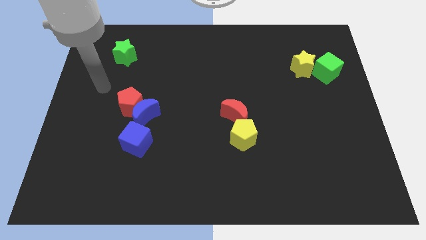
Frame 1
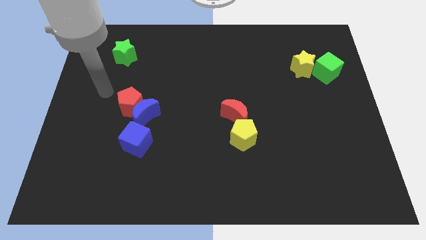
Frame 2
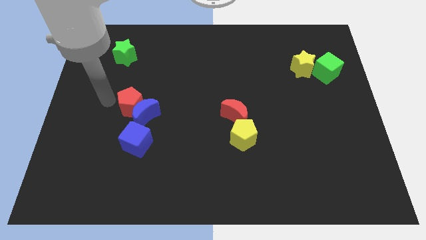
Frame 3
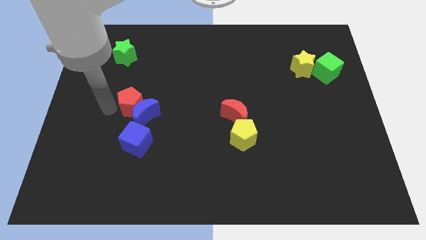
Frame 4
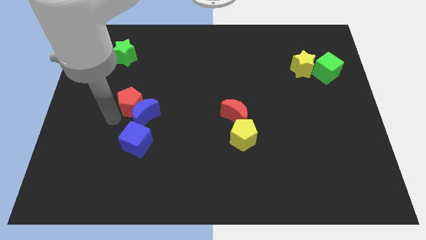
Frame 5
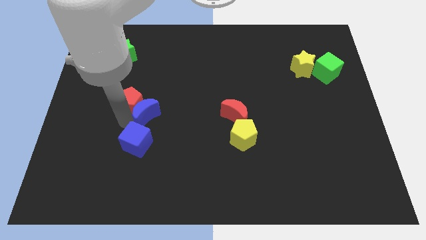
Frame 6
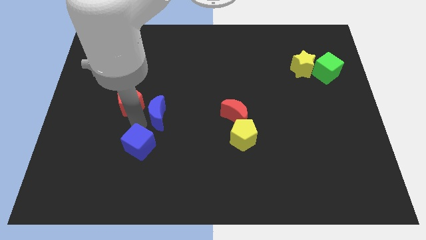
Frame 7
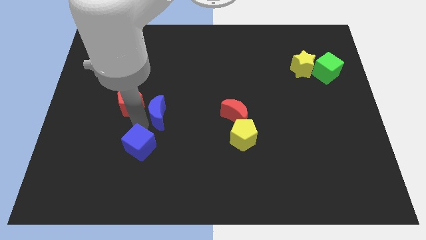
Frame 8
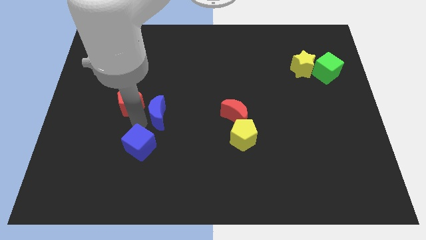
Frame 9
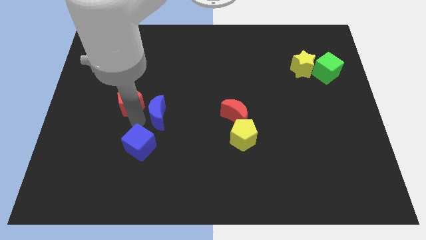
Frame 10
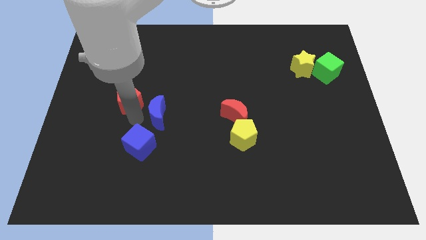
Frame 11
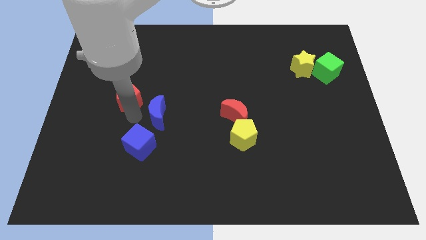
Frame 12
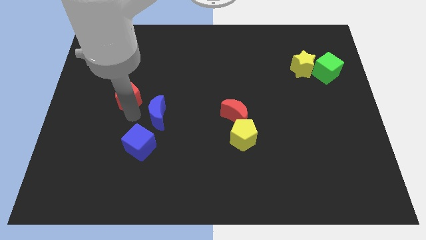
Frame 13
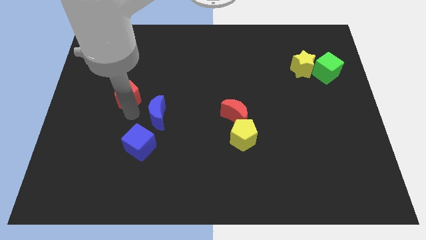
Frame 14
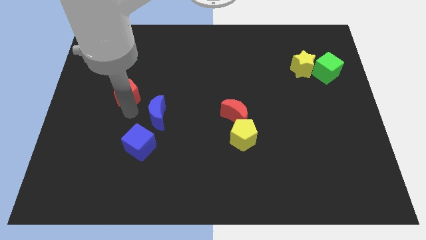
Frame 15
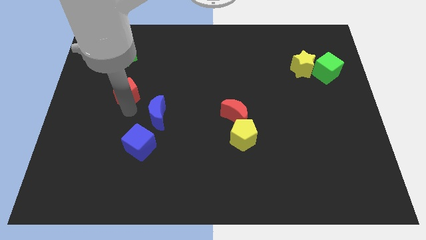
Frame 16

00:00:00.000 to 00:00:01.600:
separate the red pentagon from the blue moon

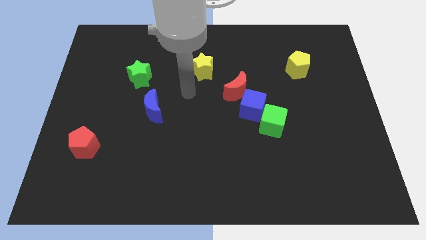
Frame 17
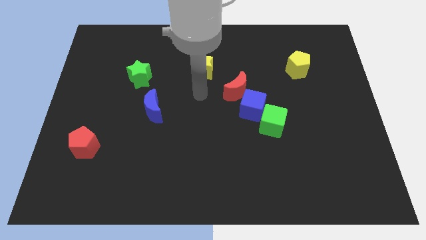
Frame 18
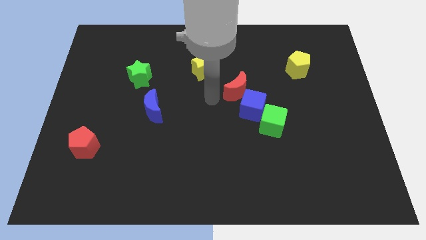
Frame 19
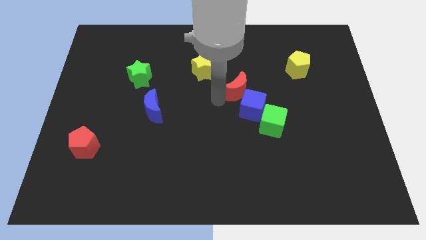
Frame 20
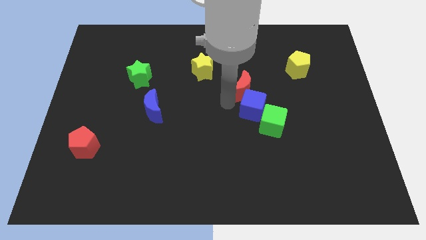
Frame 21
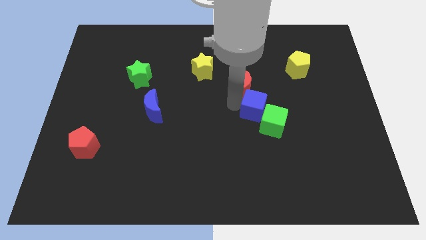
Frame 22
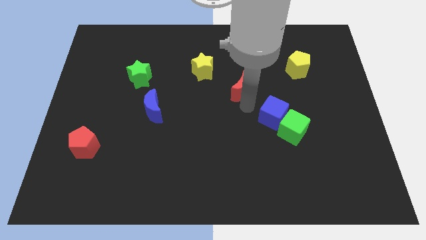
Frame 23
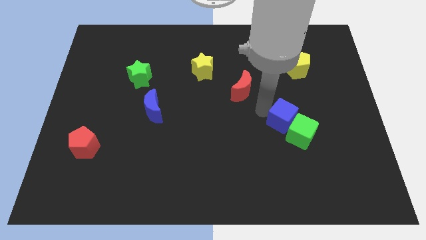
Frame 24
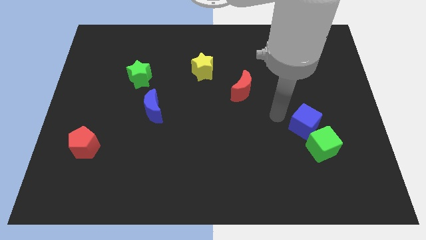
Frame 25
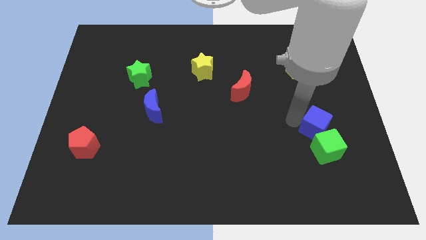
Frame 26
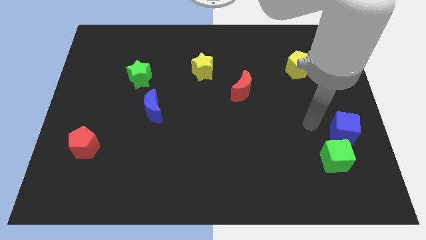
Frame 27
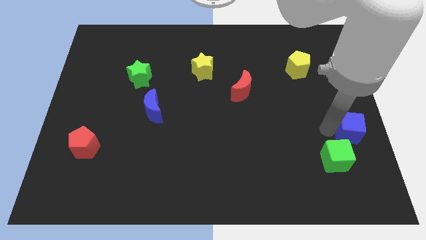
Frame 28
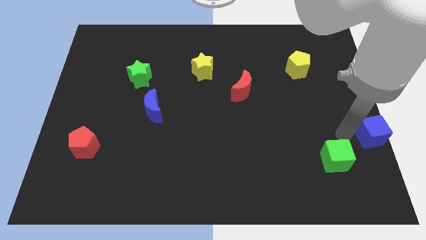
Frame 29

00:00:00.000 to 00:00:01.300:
separate the green cube from the blue cube

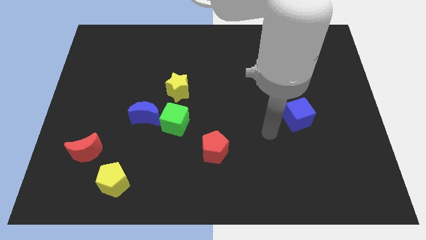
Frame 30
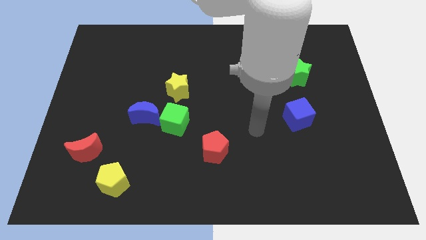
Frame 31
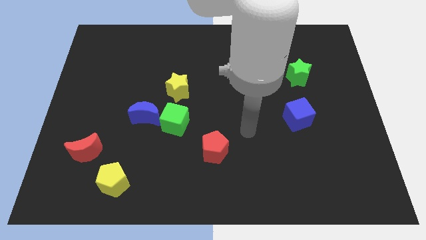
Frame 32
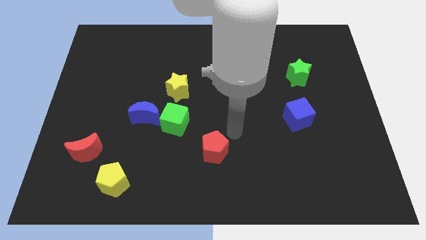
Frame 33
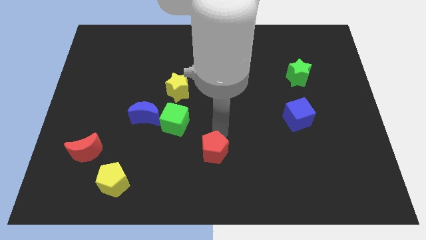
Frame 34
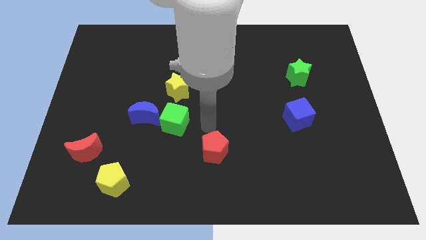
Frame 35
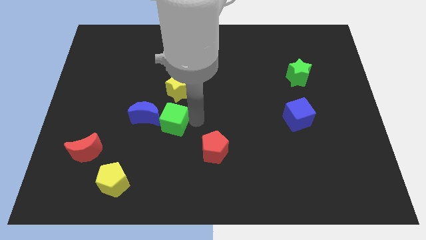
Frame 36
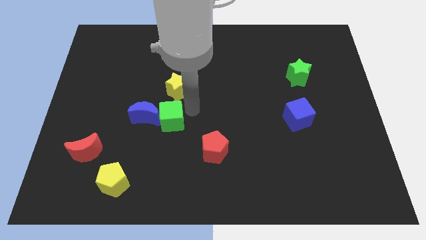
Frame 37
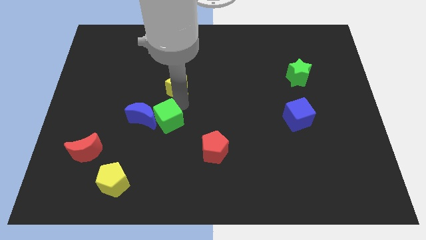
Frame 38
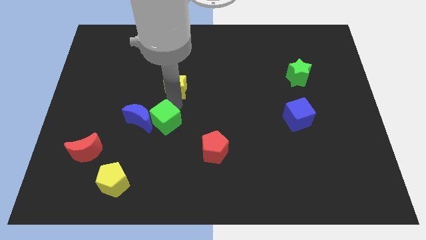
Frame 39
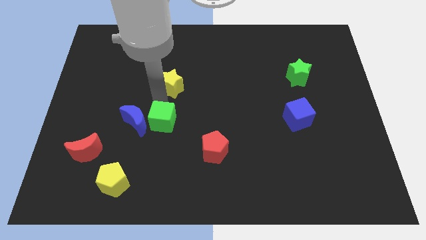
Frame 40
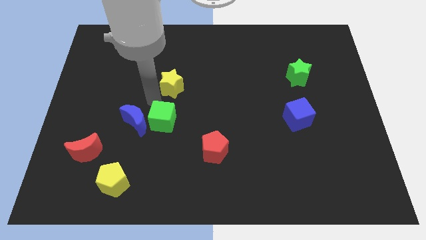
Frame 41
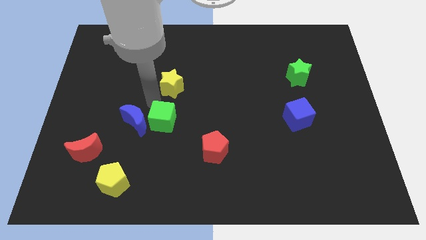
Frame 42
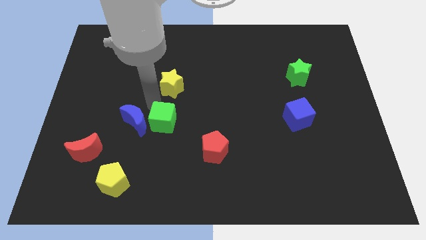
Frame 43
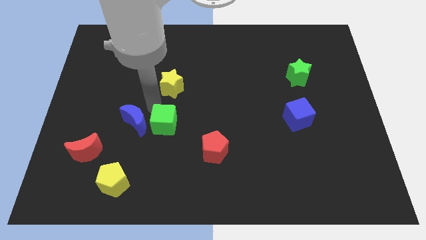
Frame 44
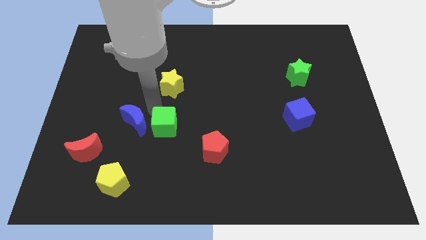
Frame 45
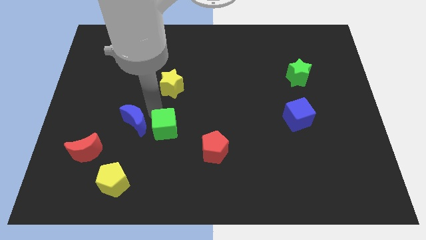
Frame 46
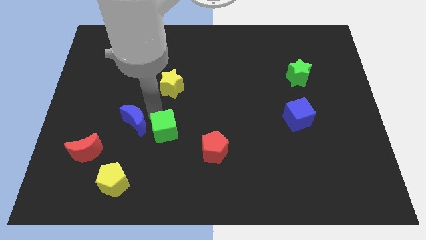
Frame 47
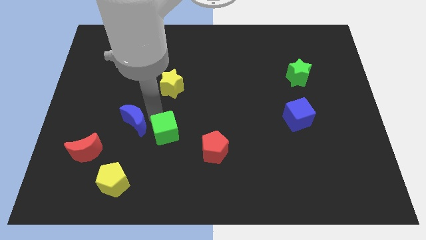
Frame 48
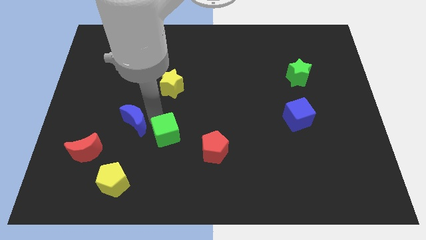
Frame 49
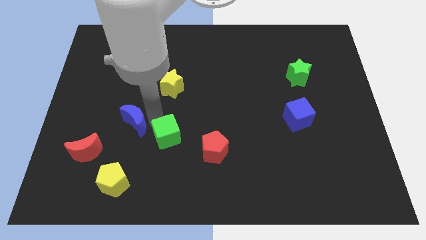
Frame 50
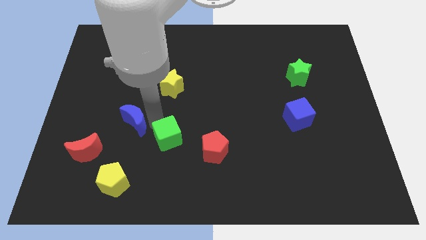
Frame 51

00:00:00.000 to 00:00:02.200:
pull the green cube apart from the blue moon and yellow star

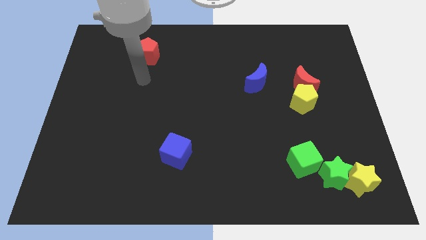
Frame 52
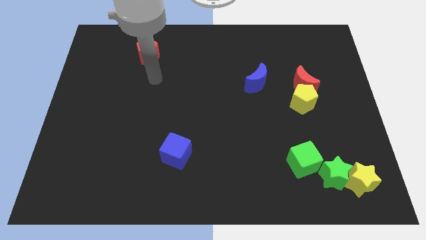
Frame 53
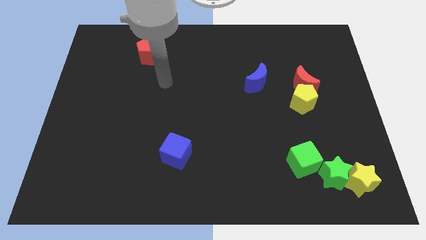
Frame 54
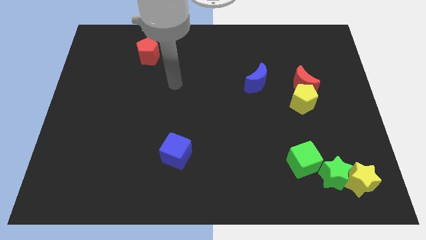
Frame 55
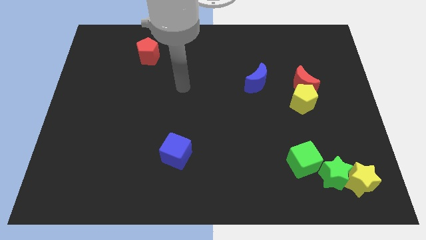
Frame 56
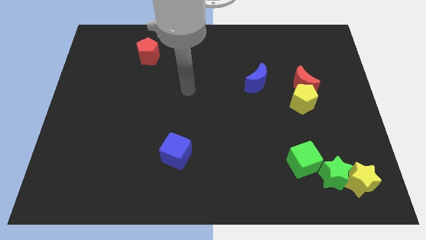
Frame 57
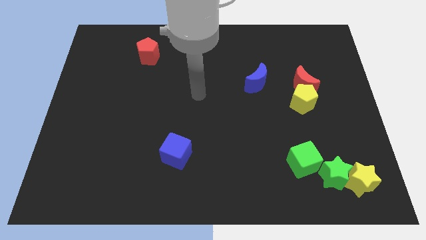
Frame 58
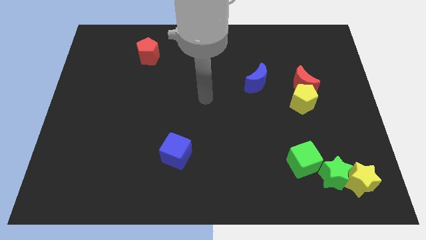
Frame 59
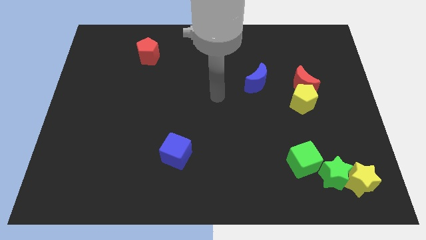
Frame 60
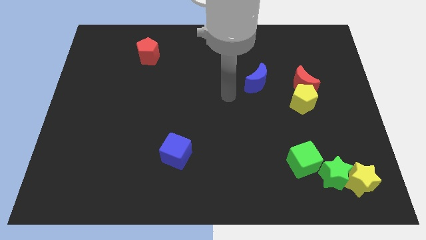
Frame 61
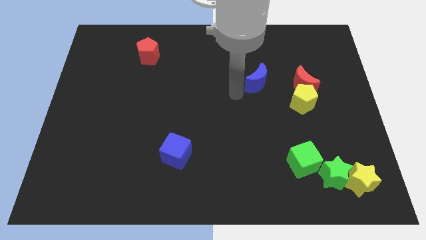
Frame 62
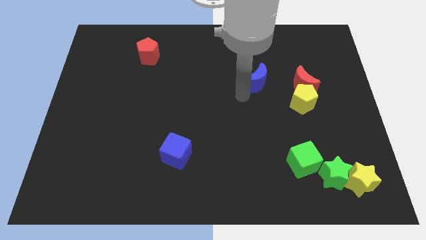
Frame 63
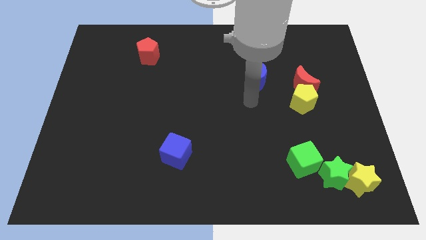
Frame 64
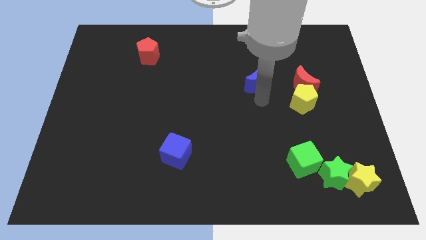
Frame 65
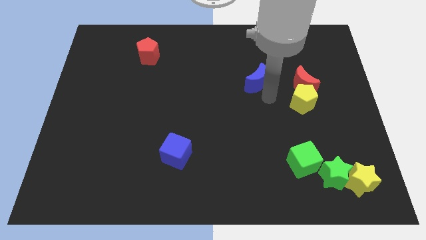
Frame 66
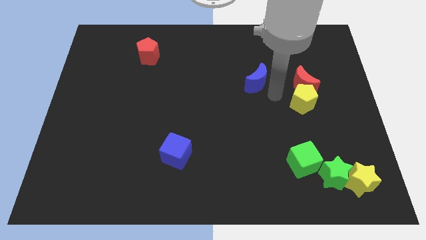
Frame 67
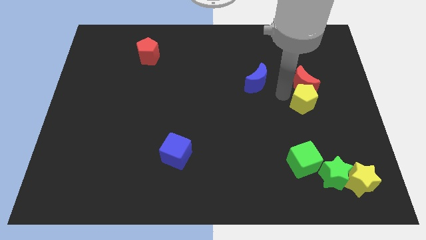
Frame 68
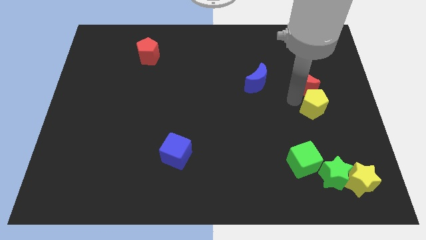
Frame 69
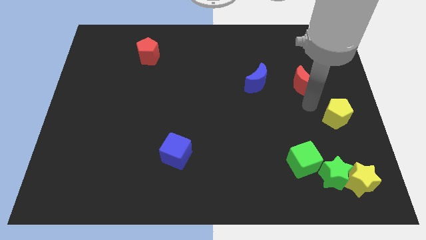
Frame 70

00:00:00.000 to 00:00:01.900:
pull the red moon apart from the yellow pentagon

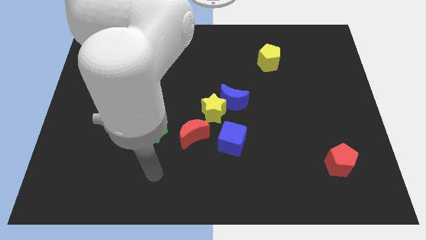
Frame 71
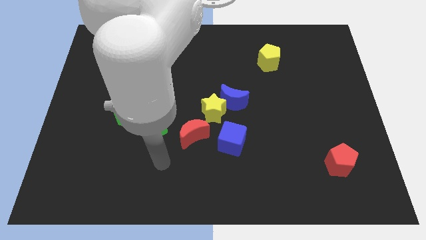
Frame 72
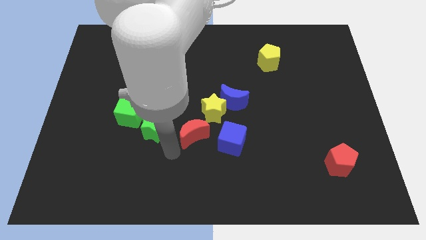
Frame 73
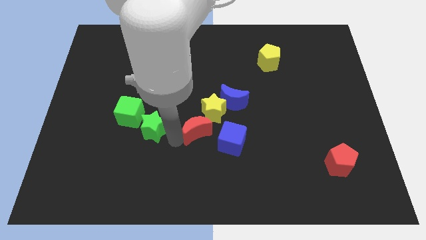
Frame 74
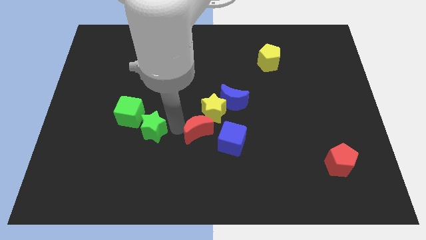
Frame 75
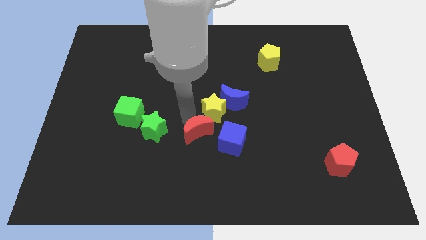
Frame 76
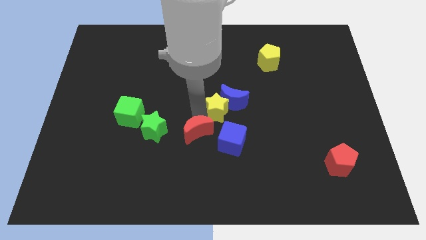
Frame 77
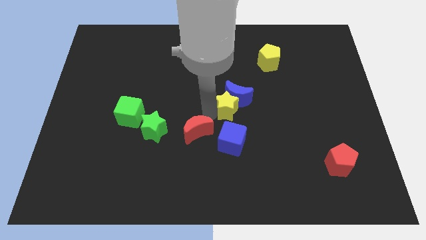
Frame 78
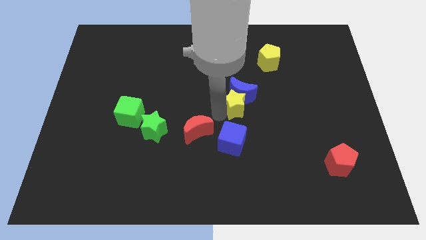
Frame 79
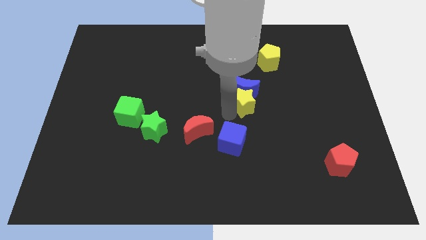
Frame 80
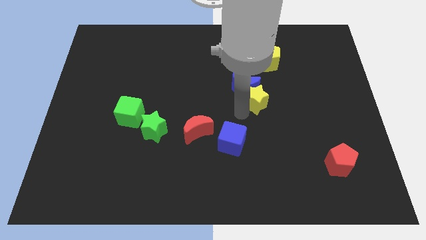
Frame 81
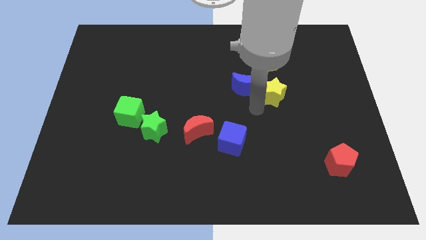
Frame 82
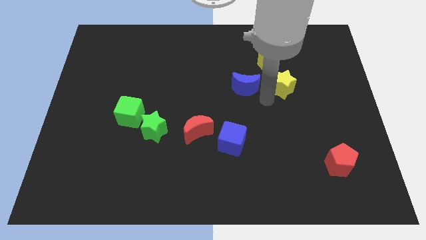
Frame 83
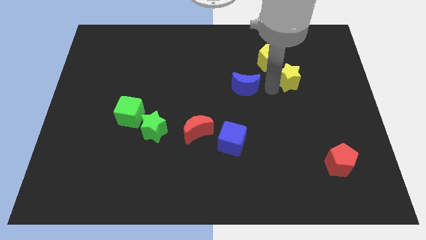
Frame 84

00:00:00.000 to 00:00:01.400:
pull the blue moon apart from the yellow star

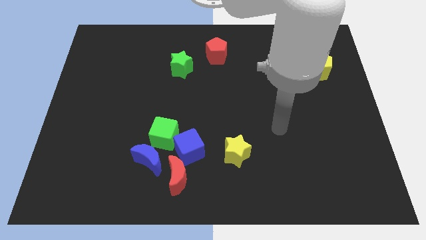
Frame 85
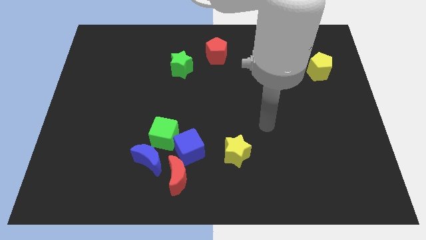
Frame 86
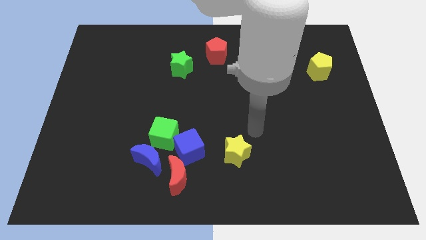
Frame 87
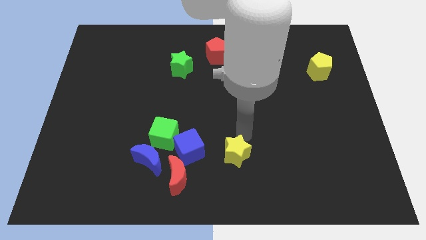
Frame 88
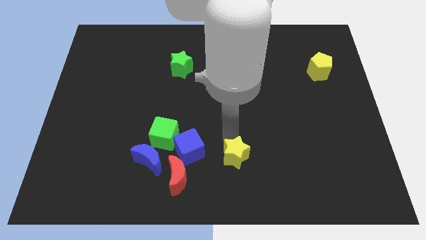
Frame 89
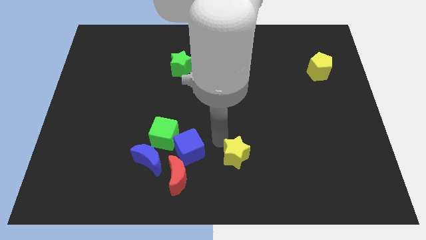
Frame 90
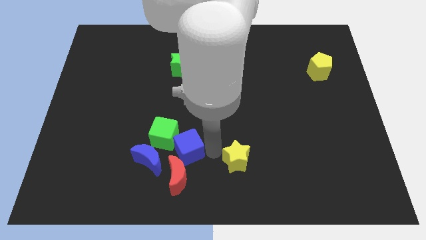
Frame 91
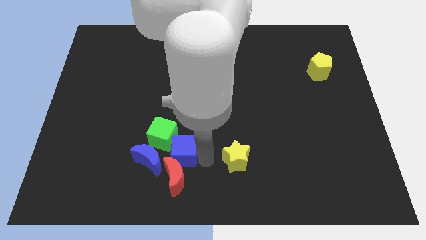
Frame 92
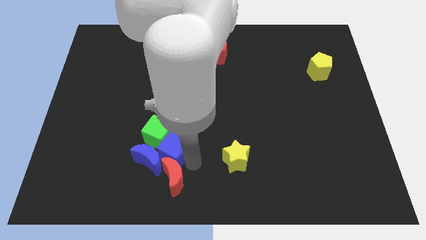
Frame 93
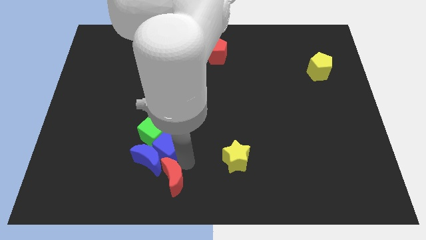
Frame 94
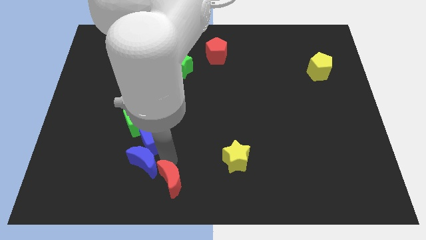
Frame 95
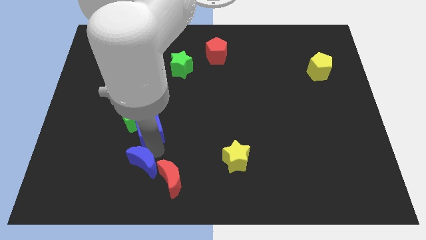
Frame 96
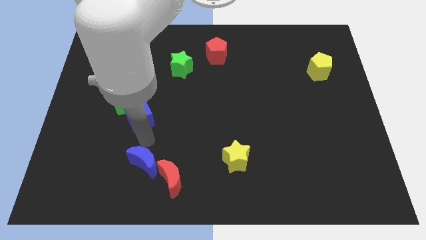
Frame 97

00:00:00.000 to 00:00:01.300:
pull the green cube apart from the blue cube and blue moon
